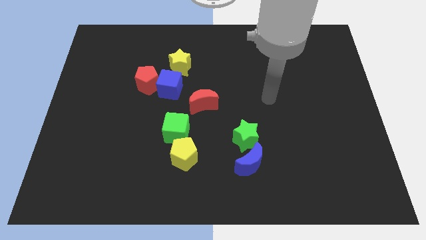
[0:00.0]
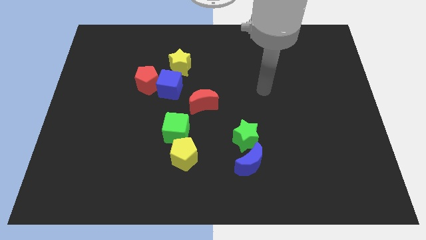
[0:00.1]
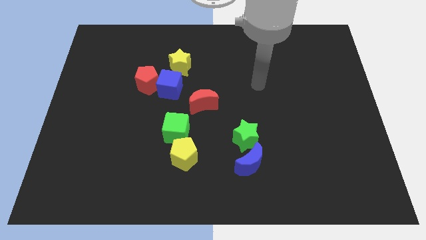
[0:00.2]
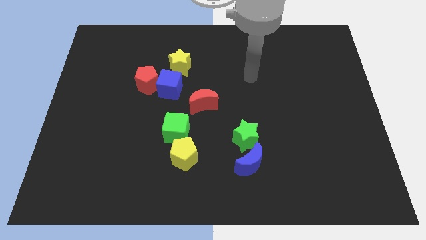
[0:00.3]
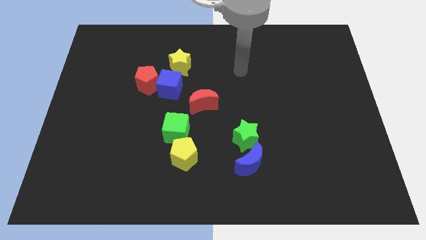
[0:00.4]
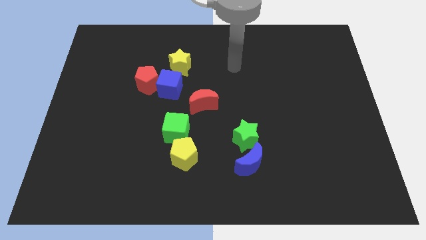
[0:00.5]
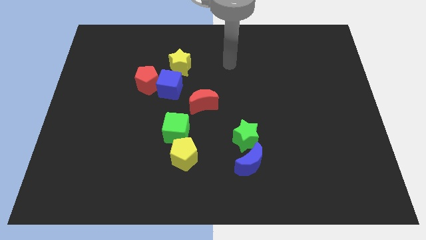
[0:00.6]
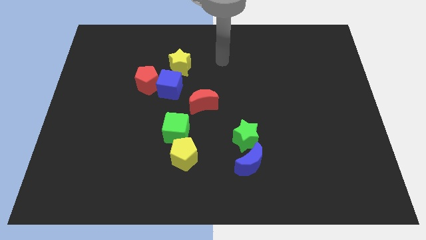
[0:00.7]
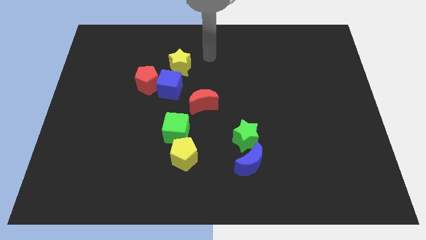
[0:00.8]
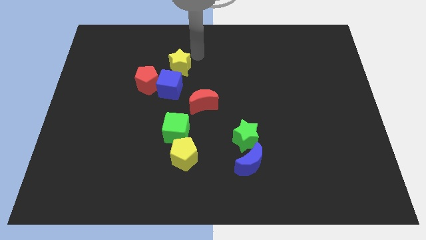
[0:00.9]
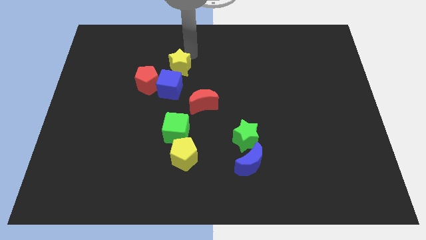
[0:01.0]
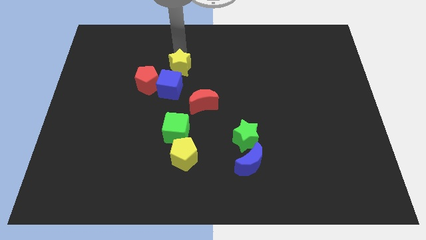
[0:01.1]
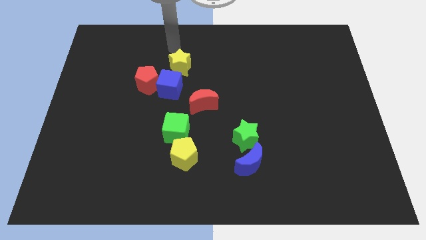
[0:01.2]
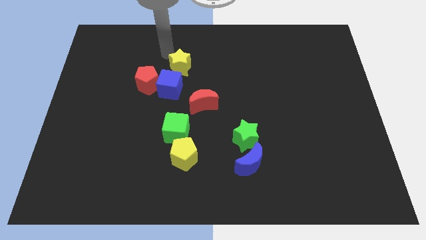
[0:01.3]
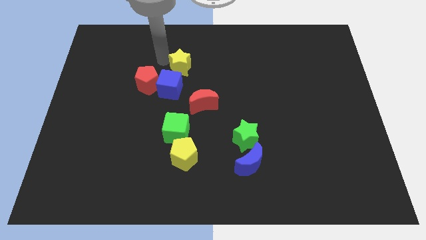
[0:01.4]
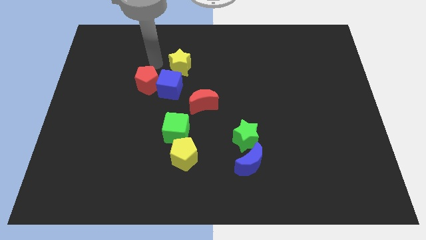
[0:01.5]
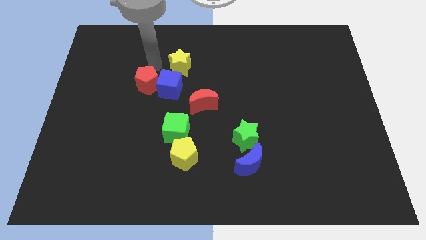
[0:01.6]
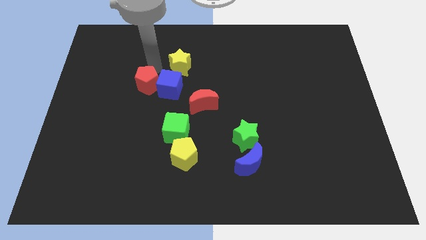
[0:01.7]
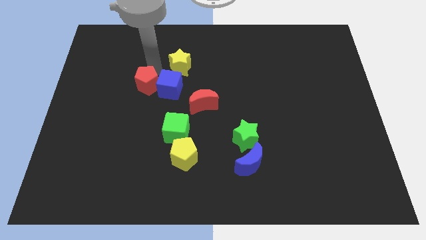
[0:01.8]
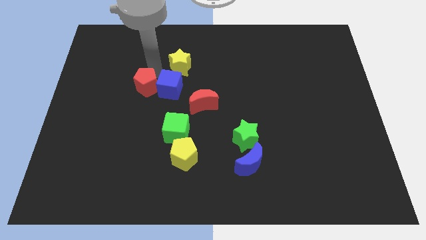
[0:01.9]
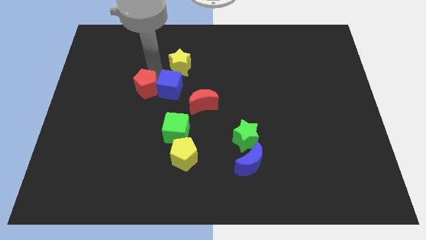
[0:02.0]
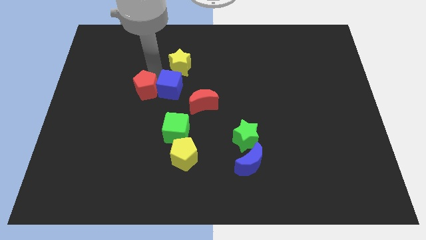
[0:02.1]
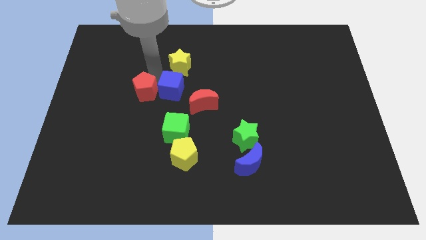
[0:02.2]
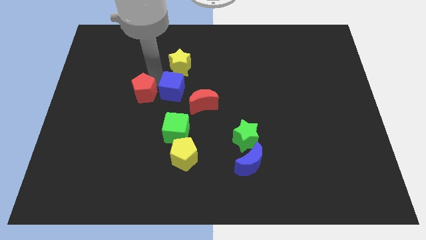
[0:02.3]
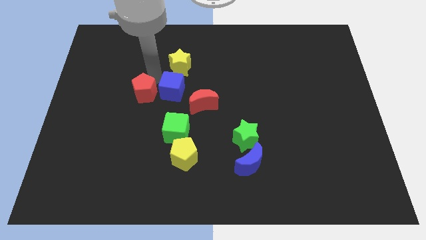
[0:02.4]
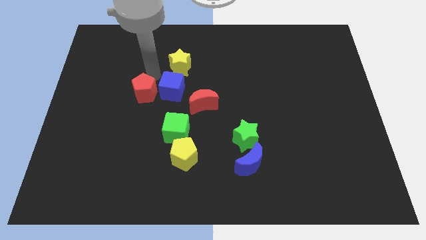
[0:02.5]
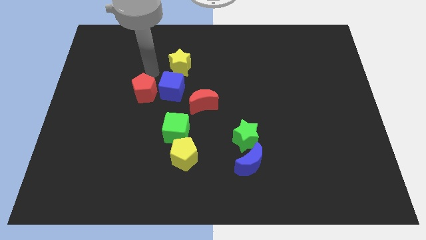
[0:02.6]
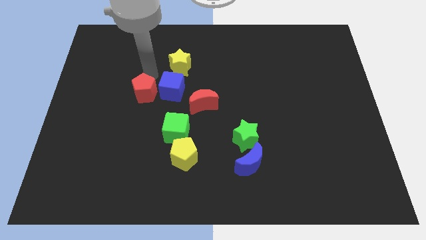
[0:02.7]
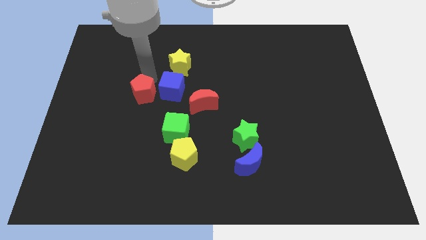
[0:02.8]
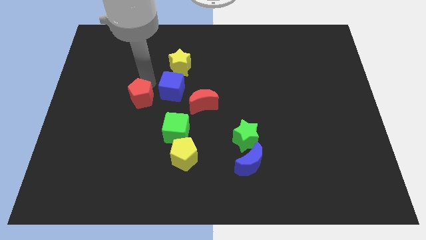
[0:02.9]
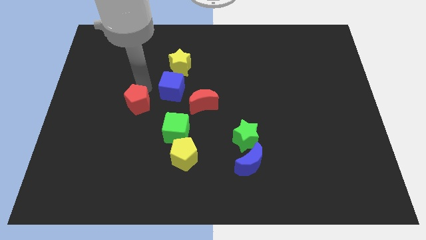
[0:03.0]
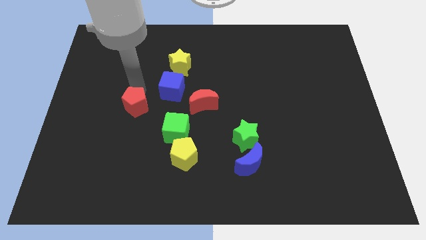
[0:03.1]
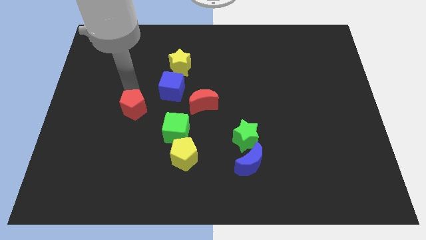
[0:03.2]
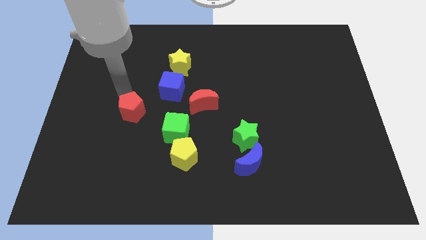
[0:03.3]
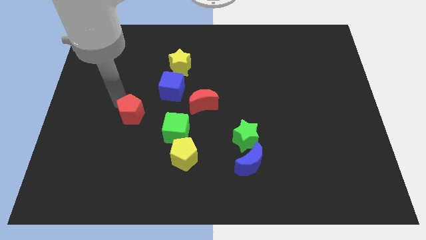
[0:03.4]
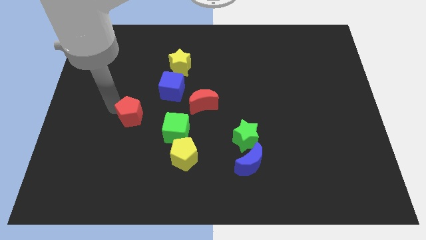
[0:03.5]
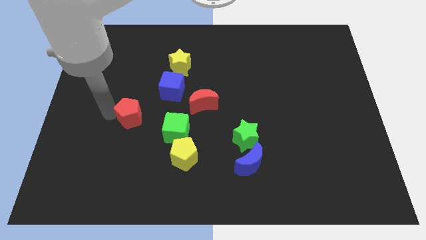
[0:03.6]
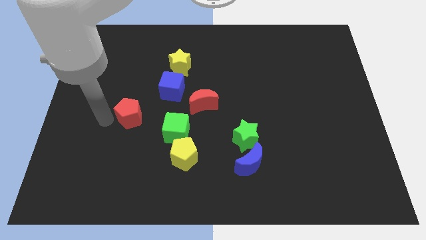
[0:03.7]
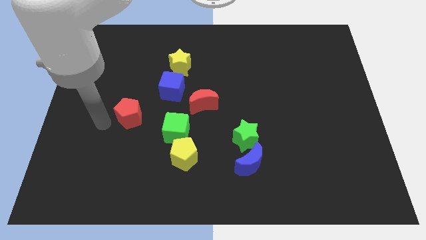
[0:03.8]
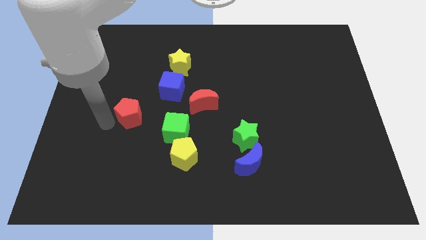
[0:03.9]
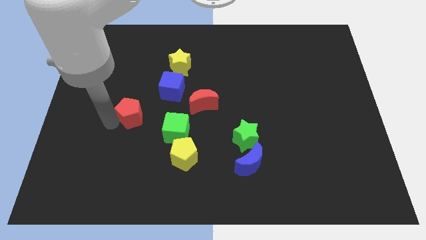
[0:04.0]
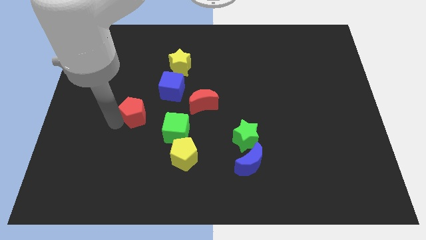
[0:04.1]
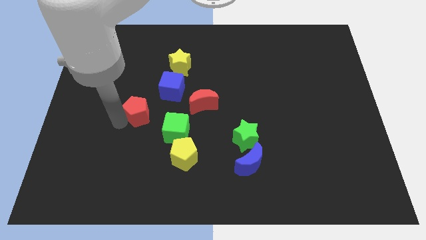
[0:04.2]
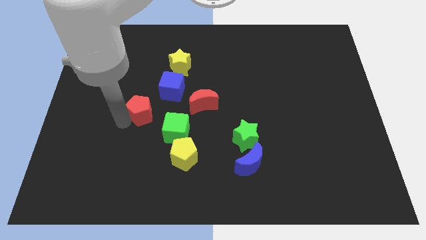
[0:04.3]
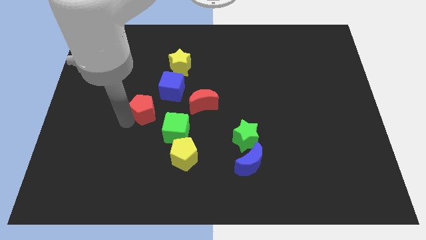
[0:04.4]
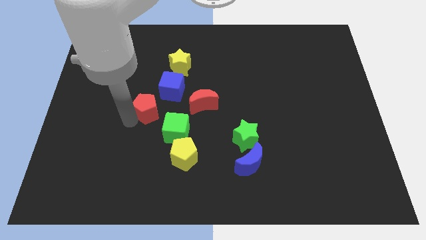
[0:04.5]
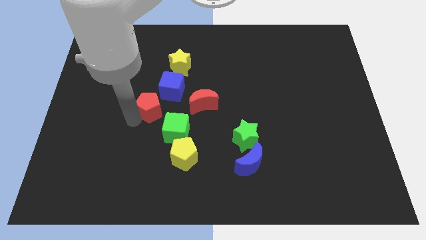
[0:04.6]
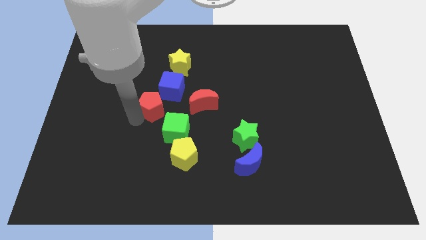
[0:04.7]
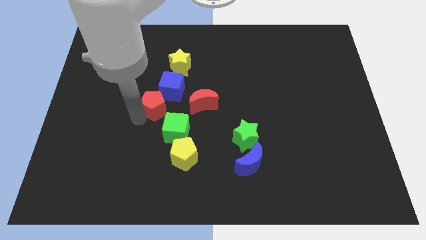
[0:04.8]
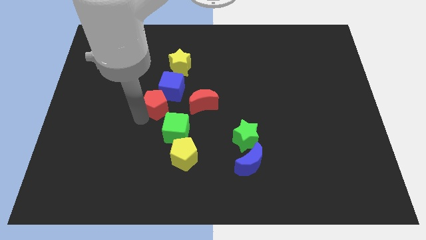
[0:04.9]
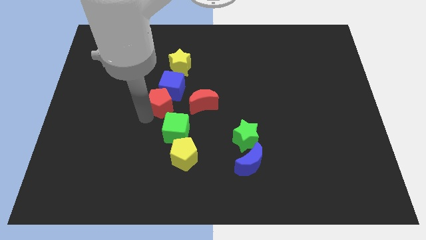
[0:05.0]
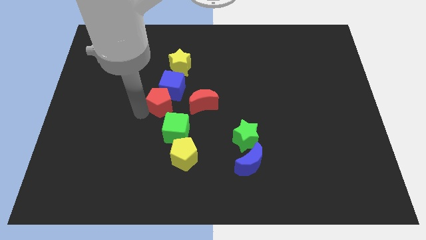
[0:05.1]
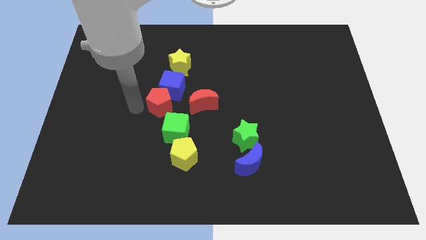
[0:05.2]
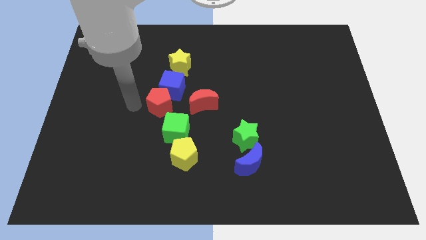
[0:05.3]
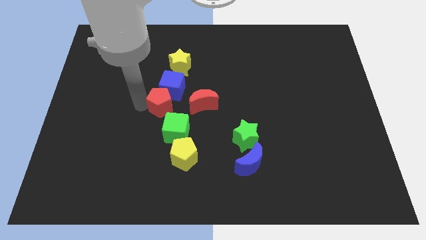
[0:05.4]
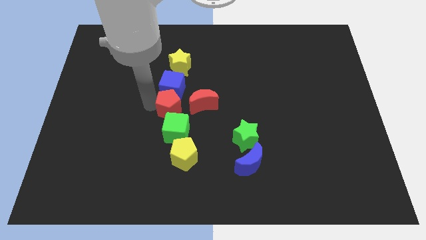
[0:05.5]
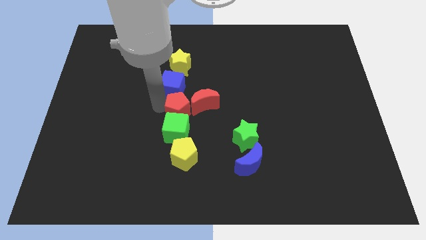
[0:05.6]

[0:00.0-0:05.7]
push the red pentagon towards the red moon

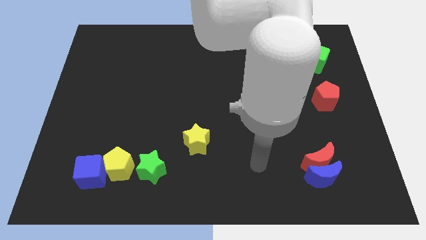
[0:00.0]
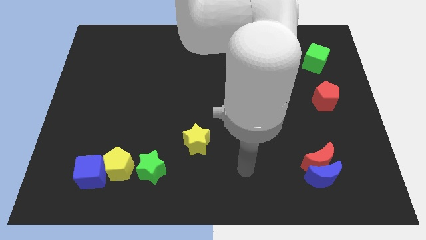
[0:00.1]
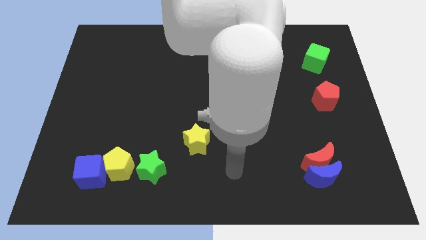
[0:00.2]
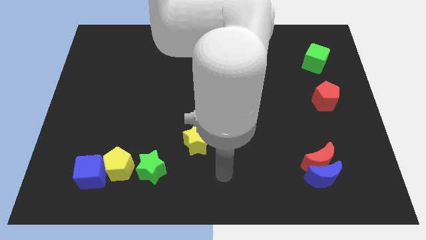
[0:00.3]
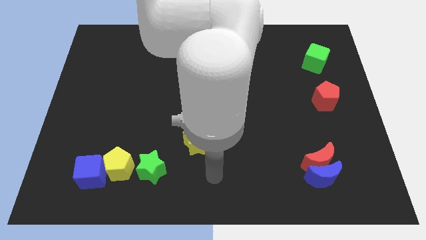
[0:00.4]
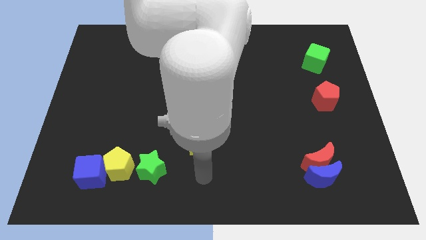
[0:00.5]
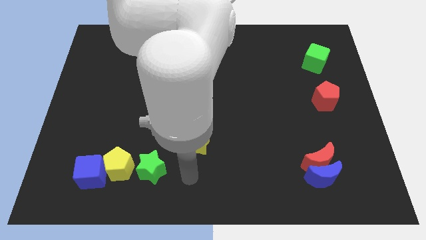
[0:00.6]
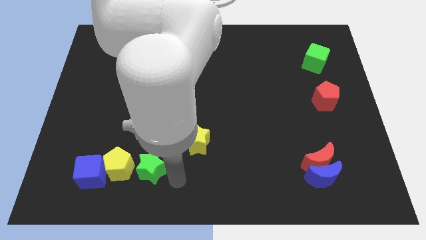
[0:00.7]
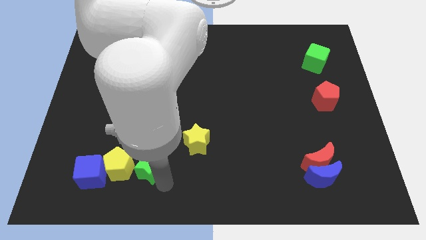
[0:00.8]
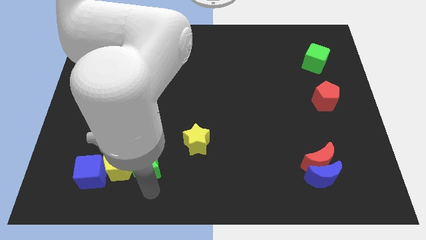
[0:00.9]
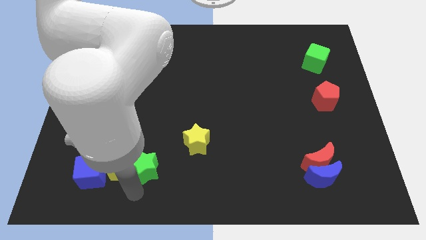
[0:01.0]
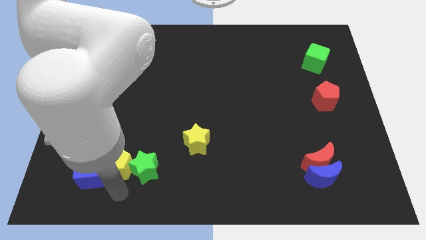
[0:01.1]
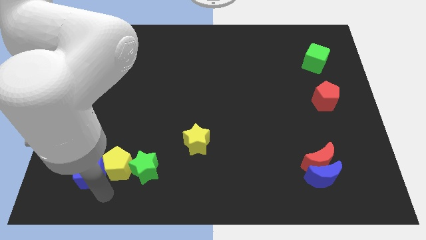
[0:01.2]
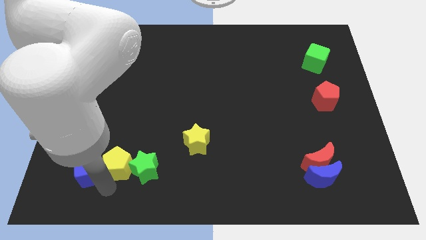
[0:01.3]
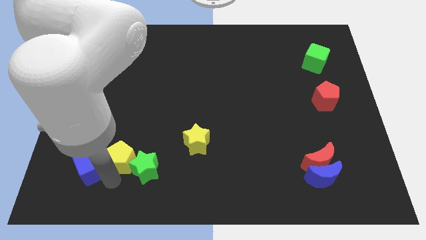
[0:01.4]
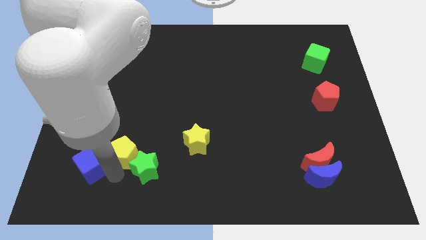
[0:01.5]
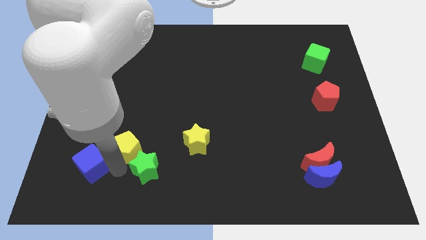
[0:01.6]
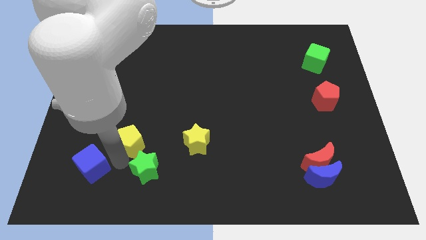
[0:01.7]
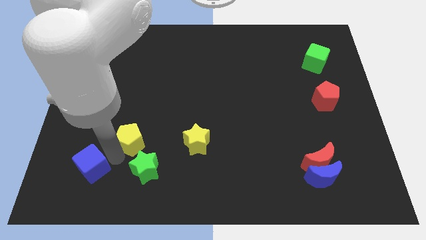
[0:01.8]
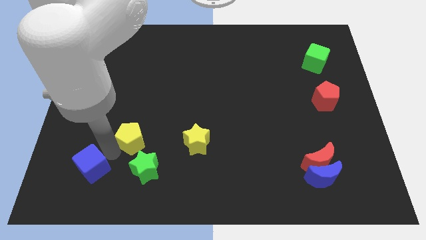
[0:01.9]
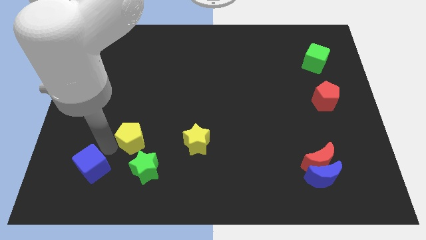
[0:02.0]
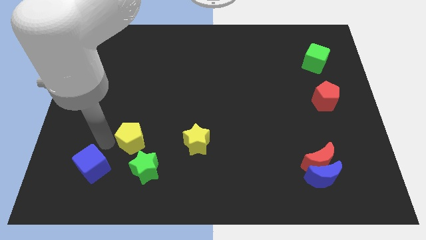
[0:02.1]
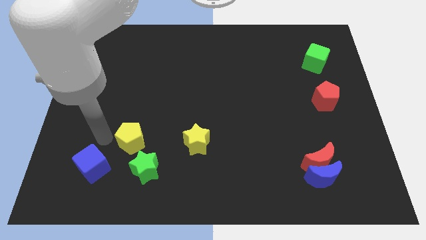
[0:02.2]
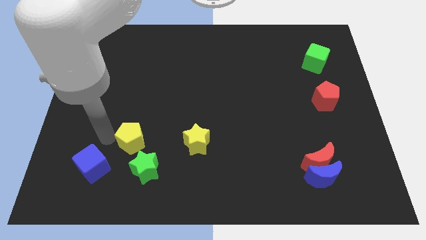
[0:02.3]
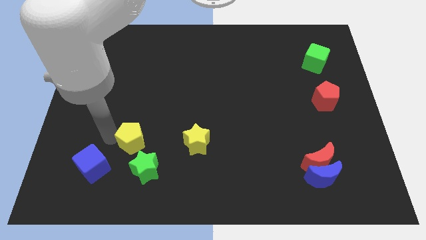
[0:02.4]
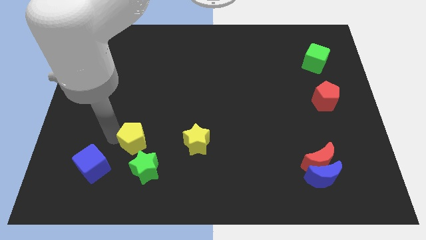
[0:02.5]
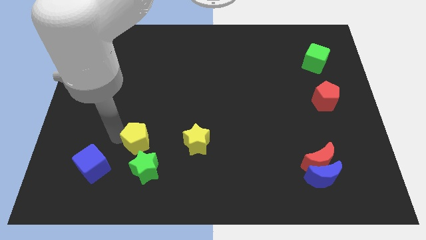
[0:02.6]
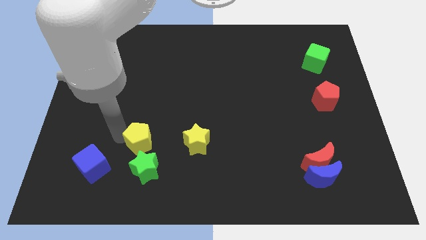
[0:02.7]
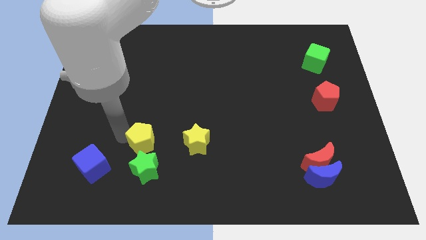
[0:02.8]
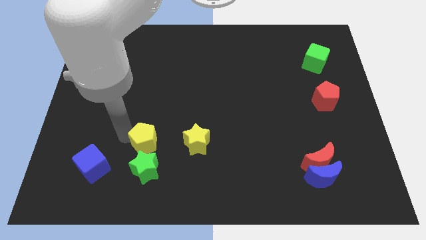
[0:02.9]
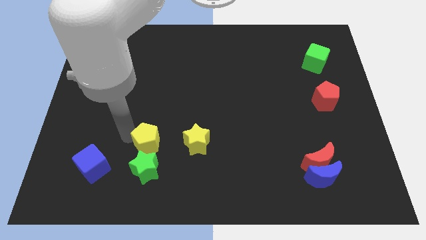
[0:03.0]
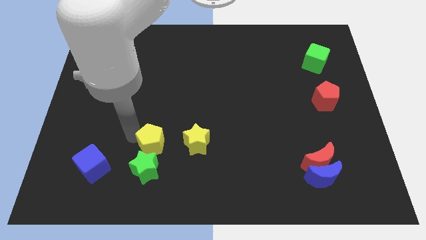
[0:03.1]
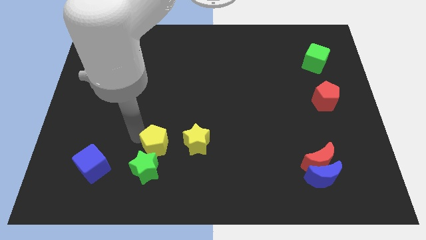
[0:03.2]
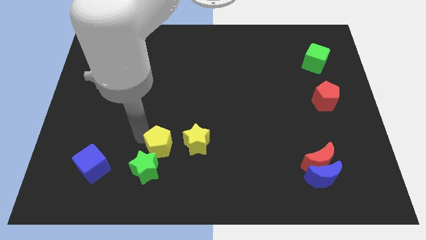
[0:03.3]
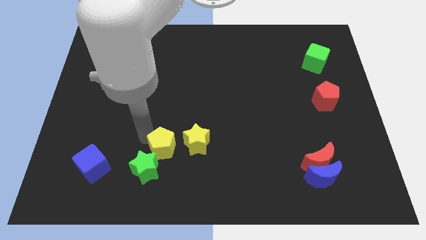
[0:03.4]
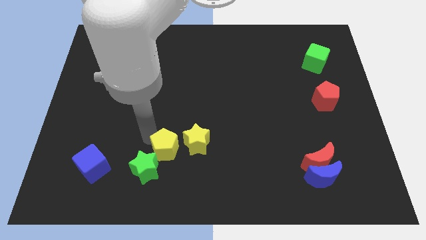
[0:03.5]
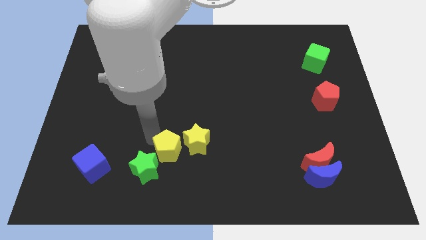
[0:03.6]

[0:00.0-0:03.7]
slide the yellow pentagon close to the yellow star
